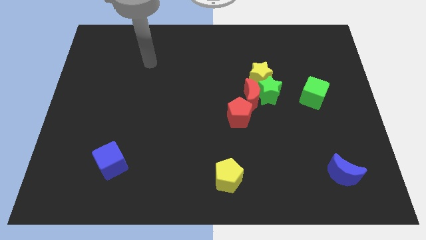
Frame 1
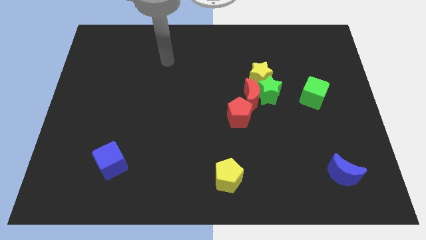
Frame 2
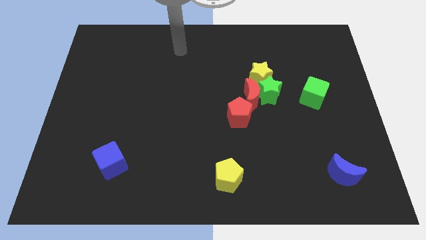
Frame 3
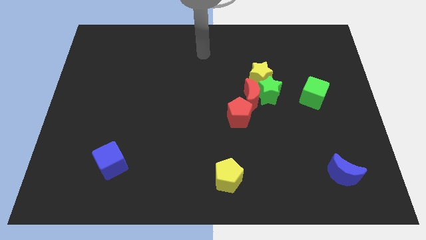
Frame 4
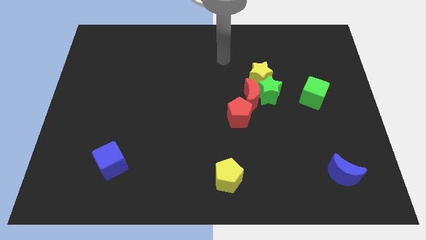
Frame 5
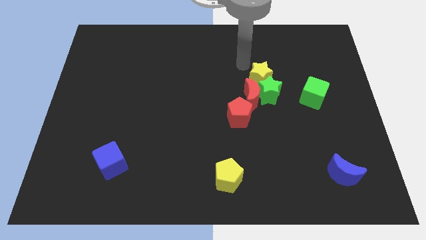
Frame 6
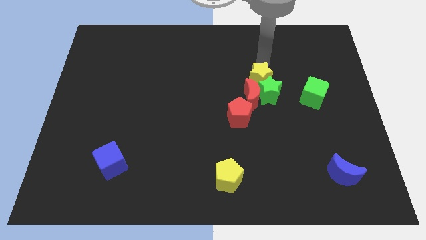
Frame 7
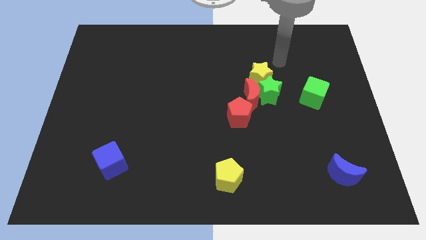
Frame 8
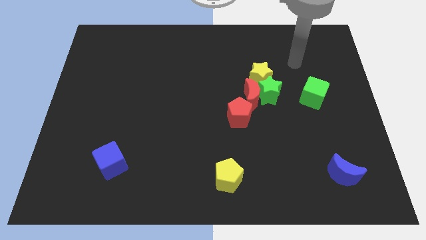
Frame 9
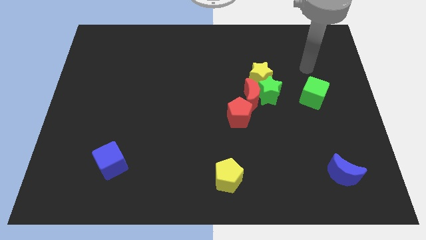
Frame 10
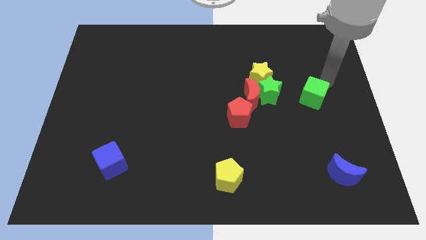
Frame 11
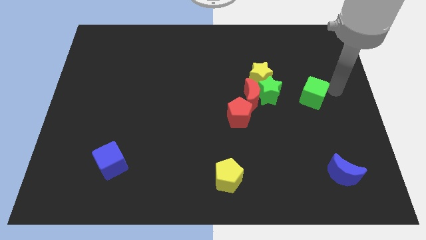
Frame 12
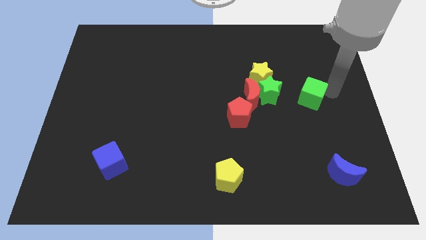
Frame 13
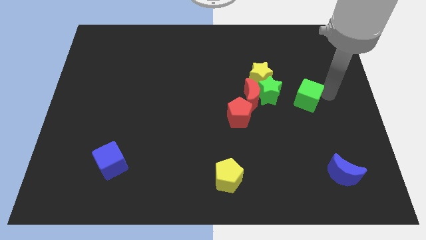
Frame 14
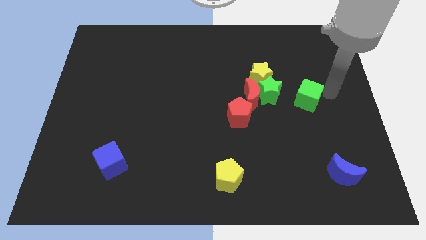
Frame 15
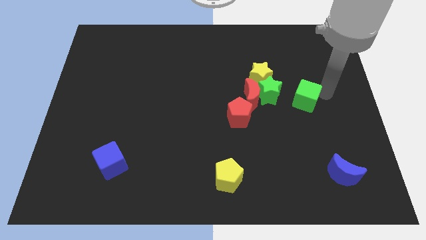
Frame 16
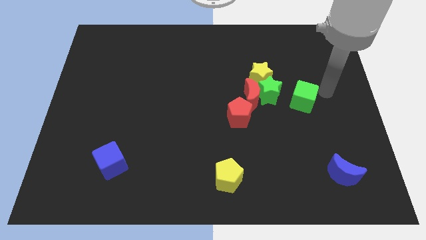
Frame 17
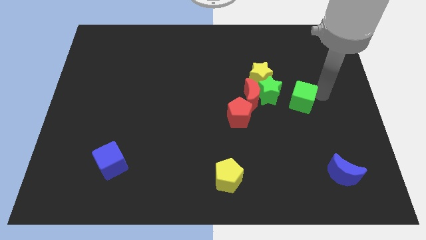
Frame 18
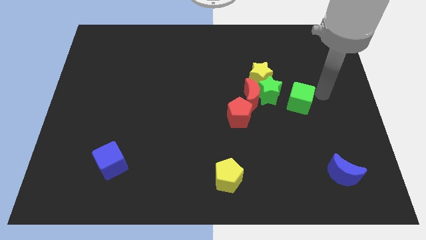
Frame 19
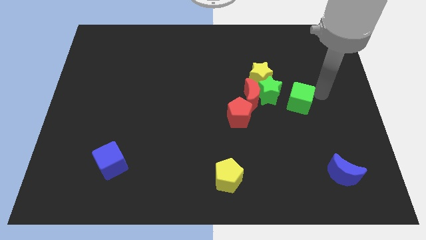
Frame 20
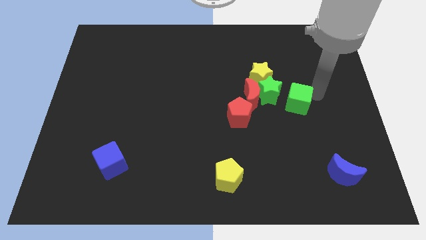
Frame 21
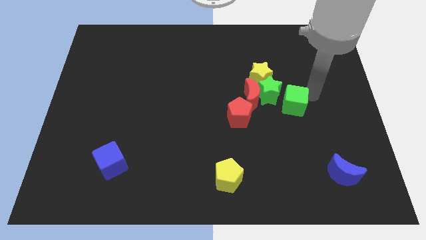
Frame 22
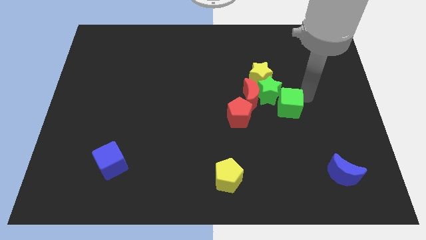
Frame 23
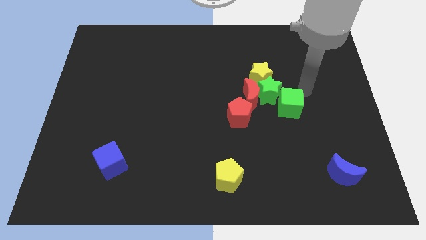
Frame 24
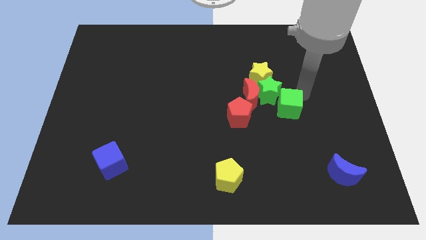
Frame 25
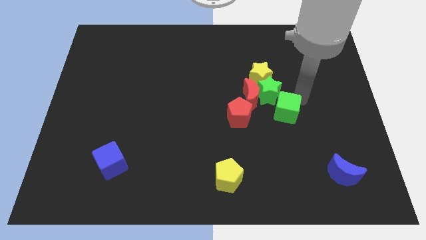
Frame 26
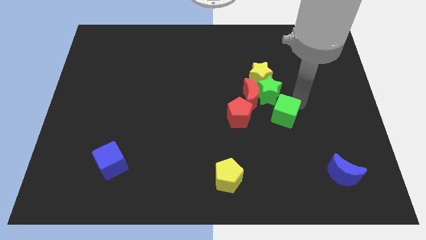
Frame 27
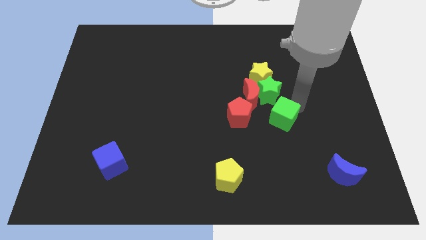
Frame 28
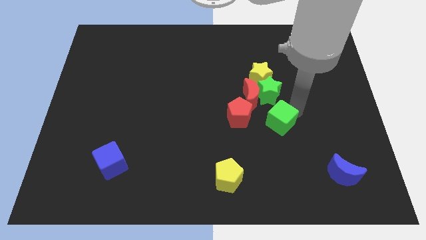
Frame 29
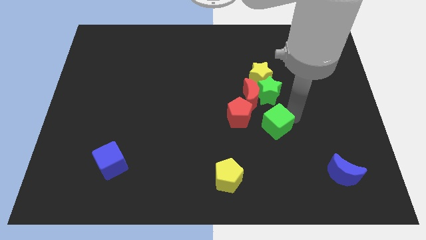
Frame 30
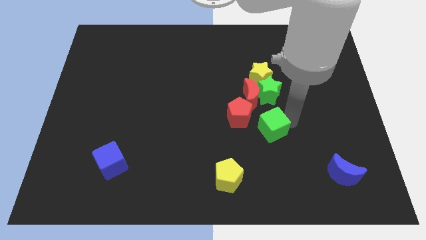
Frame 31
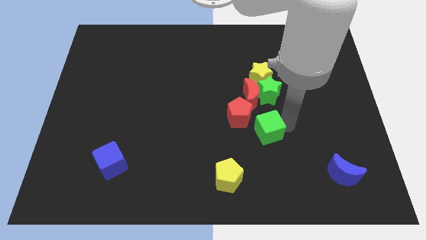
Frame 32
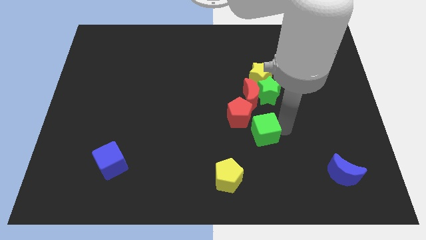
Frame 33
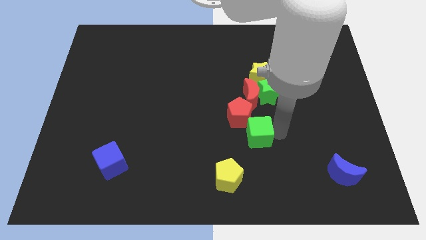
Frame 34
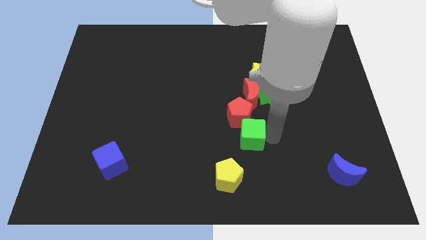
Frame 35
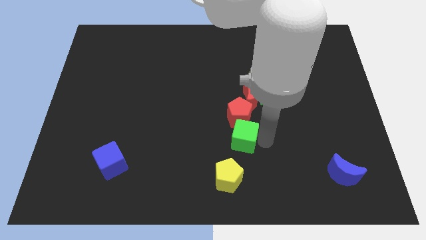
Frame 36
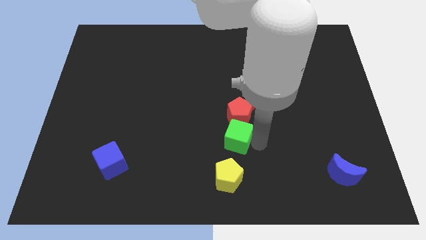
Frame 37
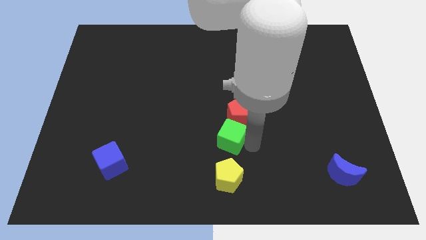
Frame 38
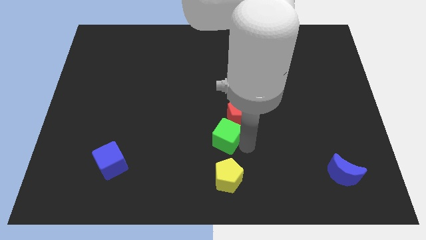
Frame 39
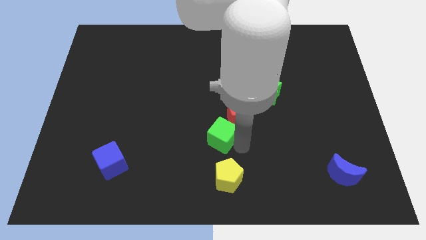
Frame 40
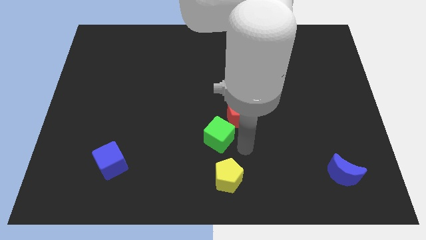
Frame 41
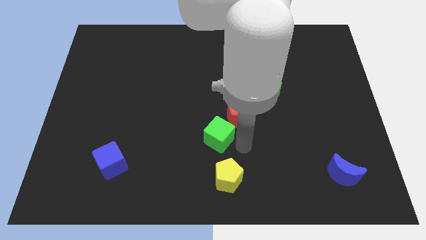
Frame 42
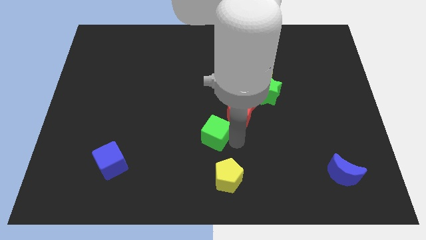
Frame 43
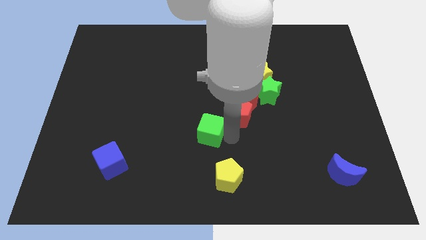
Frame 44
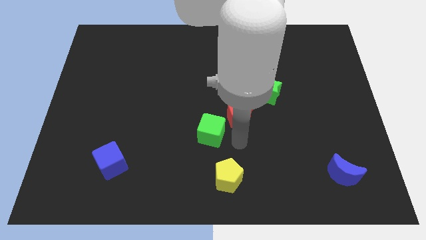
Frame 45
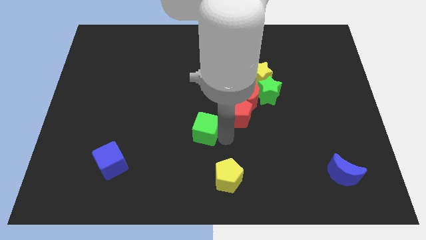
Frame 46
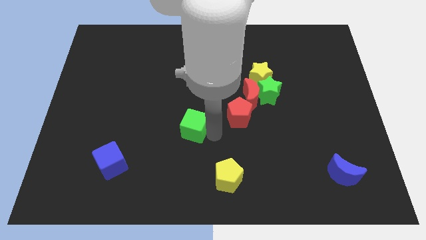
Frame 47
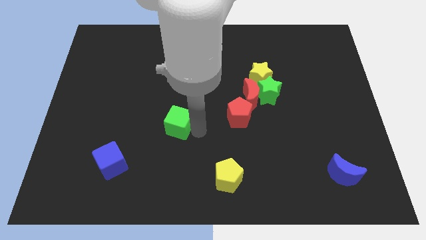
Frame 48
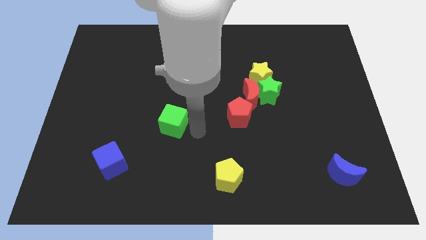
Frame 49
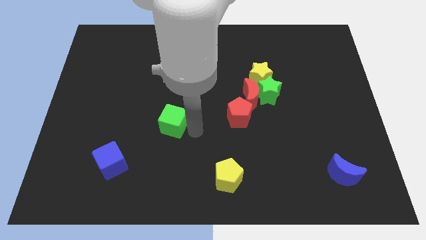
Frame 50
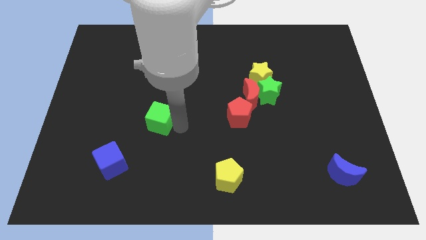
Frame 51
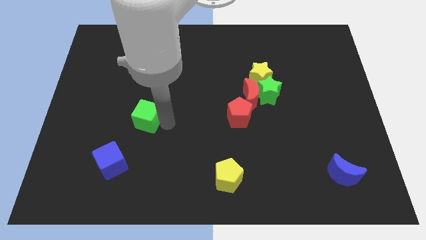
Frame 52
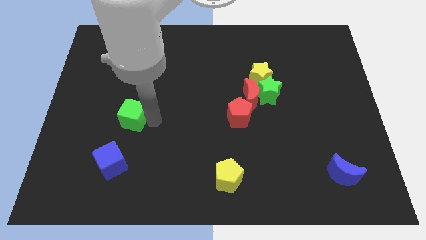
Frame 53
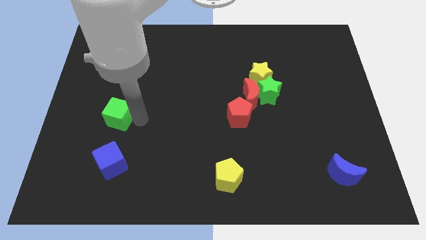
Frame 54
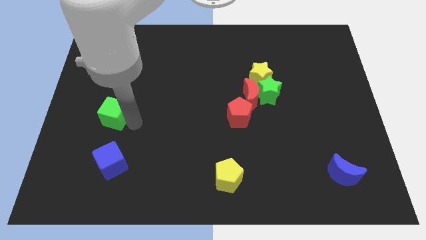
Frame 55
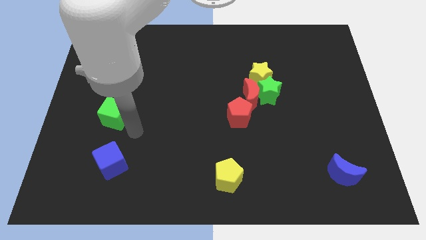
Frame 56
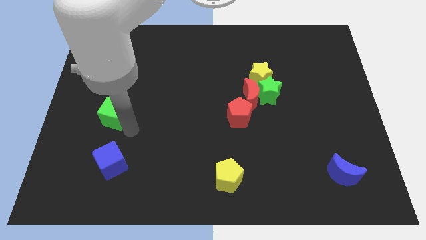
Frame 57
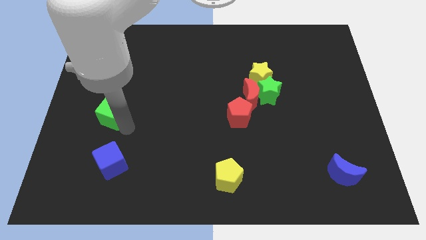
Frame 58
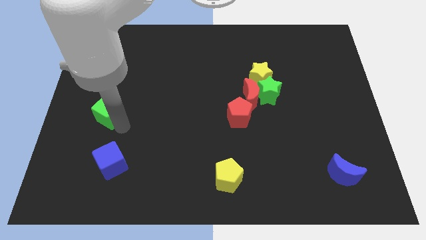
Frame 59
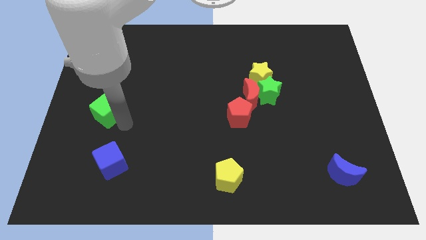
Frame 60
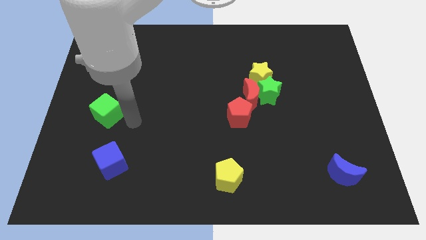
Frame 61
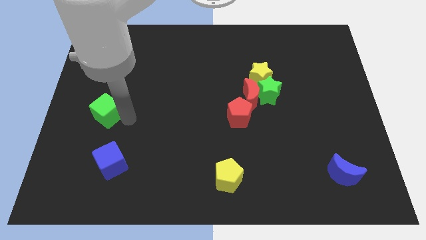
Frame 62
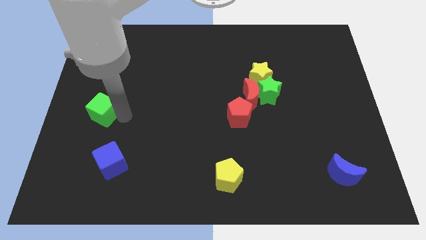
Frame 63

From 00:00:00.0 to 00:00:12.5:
push the green cube to the left side of the board
